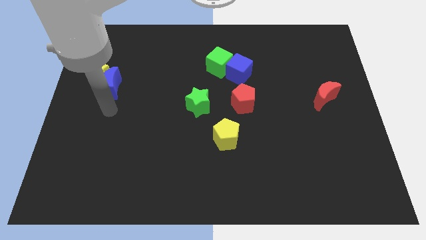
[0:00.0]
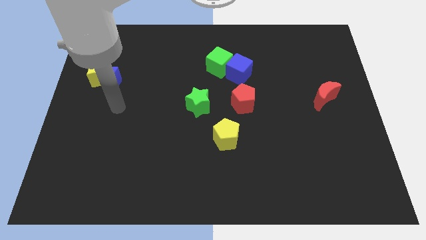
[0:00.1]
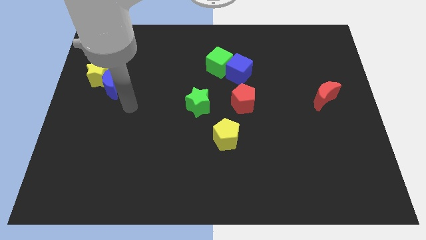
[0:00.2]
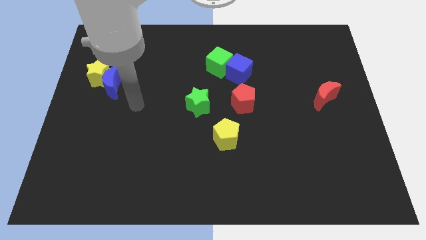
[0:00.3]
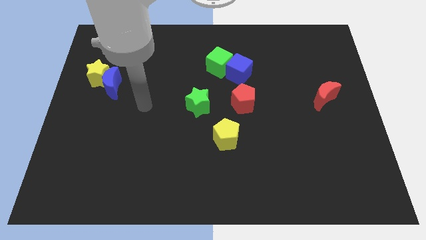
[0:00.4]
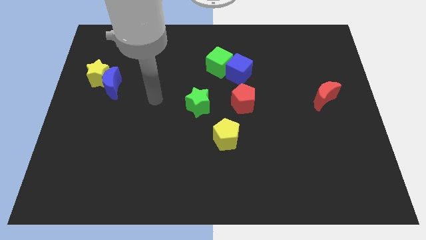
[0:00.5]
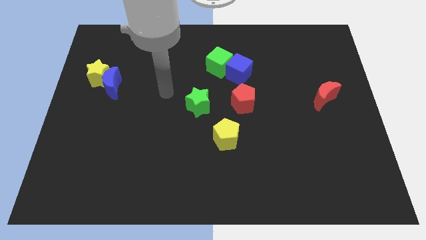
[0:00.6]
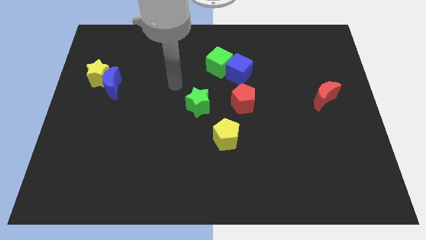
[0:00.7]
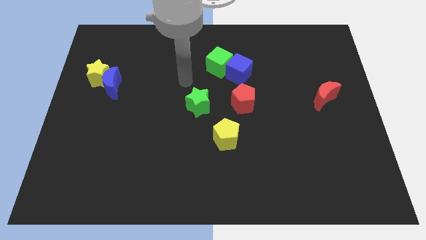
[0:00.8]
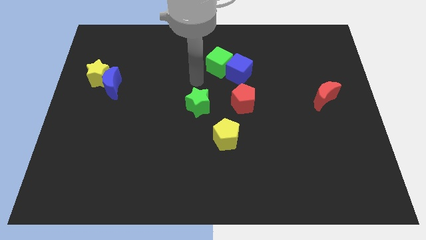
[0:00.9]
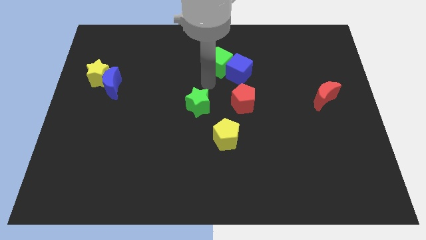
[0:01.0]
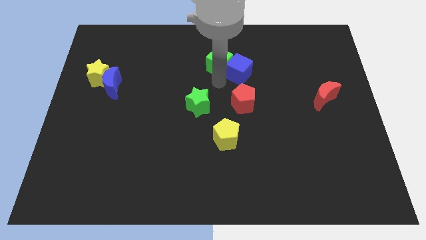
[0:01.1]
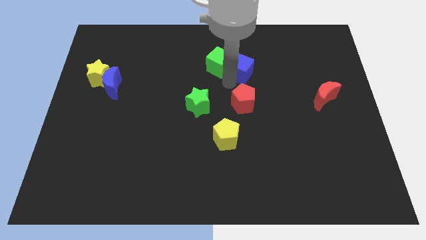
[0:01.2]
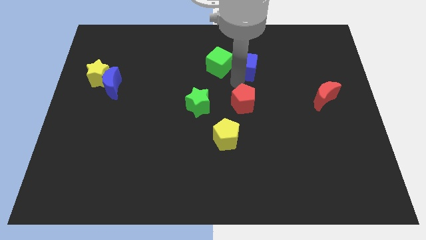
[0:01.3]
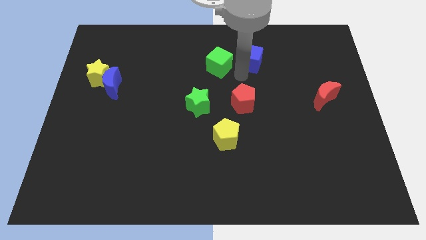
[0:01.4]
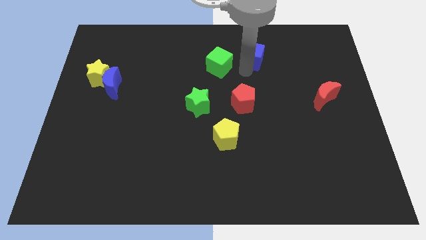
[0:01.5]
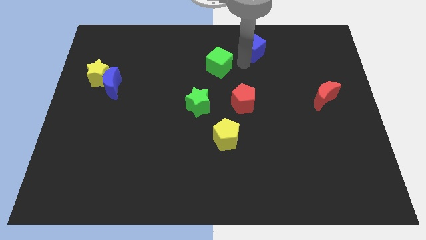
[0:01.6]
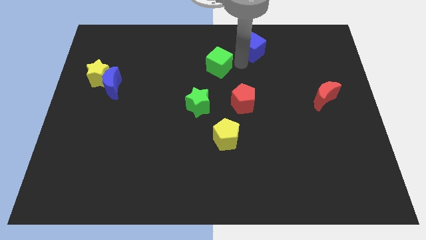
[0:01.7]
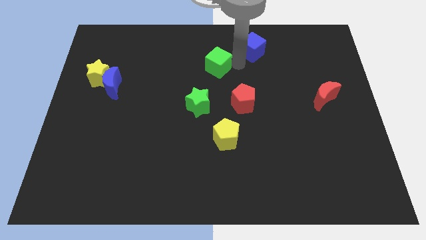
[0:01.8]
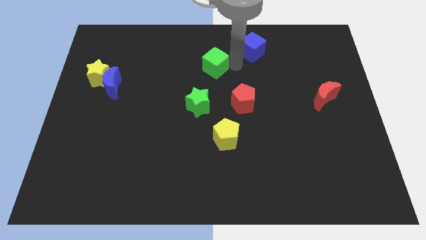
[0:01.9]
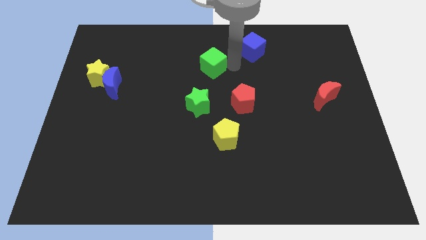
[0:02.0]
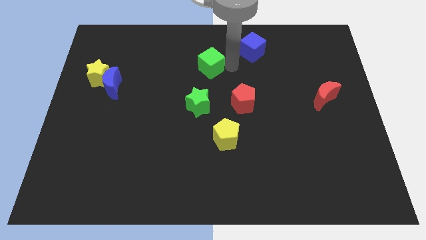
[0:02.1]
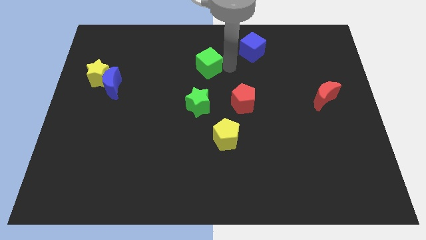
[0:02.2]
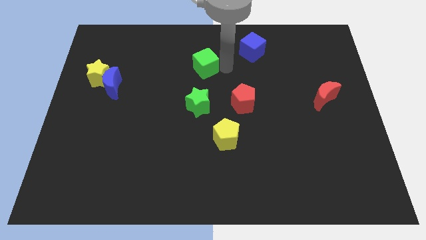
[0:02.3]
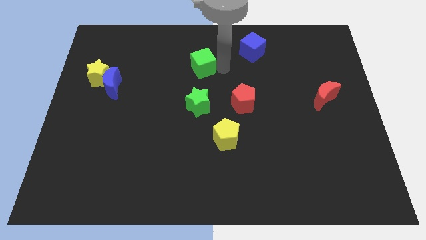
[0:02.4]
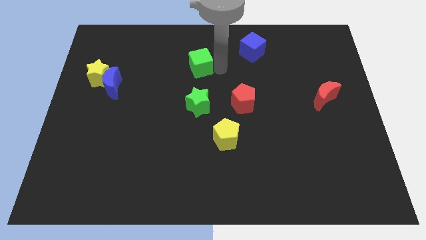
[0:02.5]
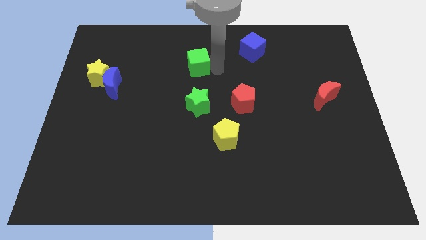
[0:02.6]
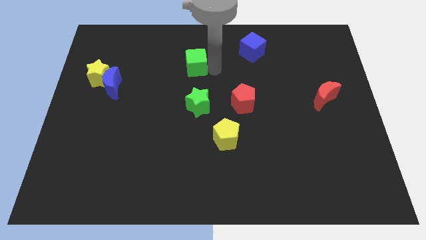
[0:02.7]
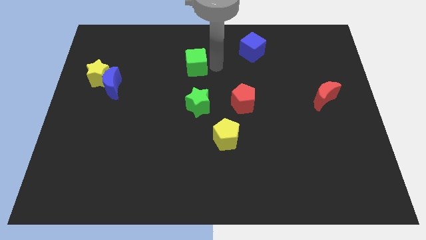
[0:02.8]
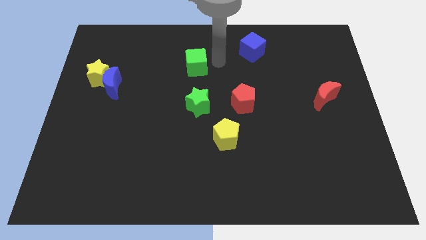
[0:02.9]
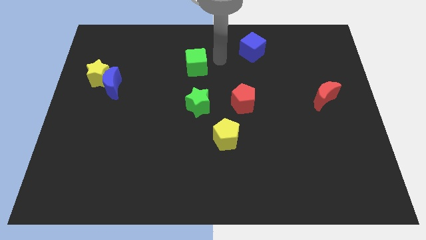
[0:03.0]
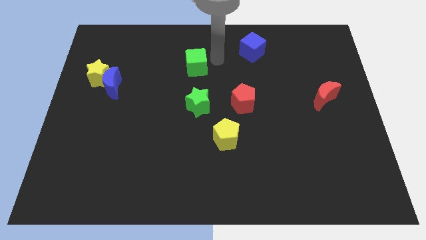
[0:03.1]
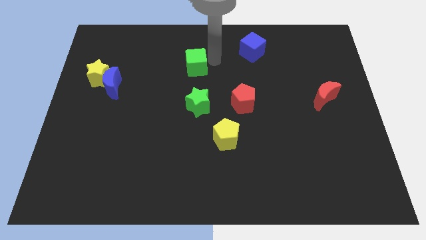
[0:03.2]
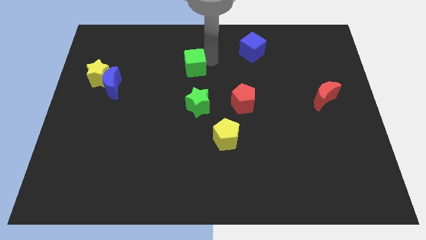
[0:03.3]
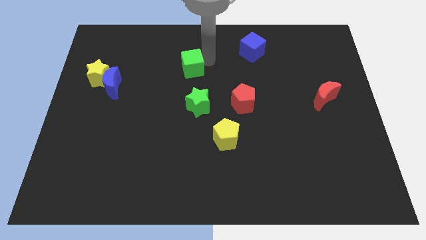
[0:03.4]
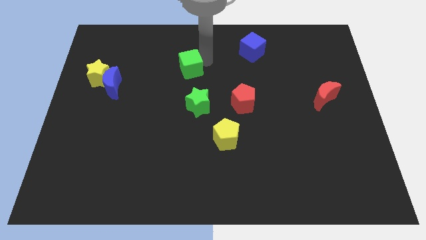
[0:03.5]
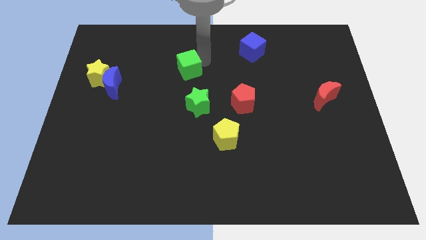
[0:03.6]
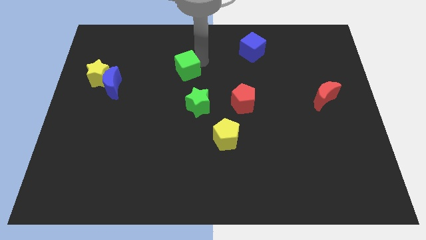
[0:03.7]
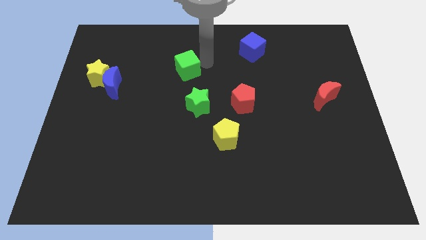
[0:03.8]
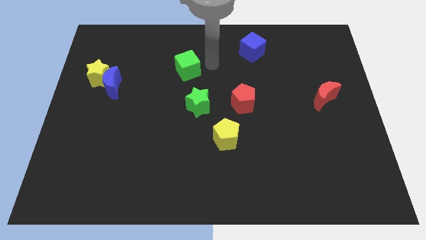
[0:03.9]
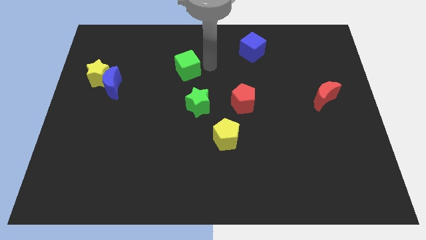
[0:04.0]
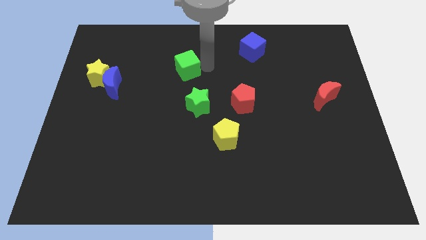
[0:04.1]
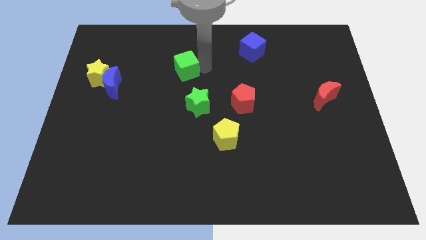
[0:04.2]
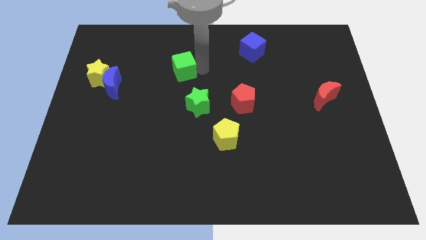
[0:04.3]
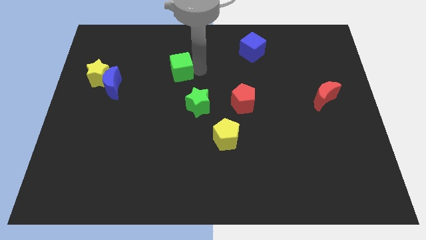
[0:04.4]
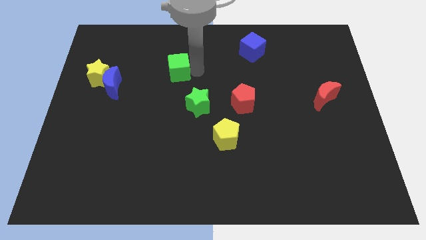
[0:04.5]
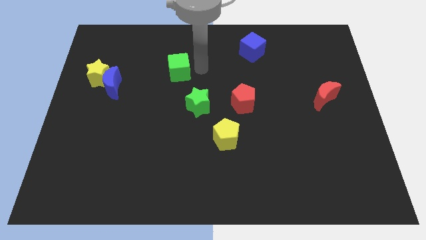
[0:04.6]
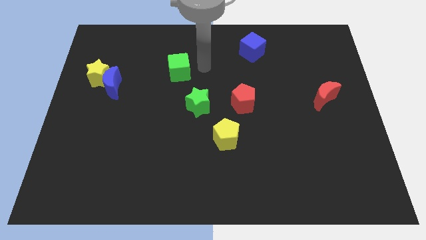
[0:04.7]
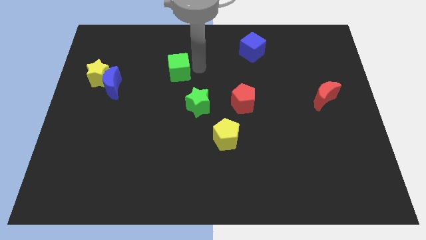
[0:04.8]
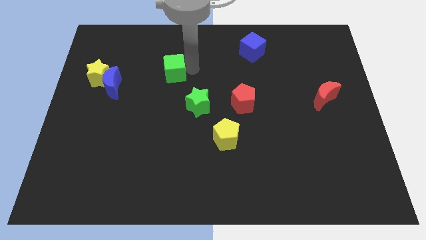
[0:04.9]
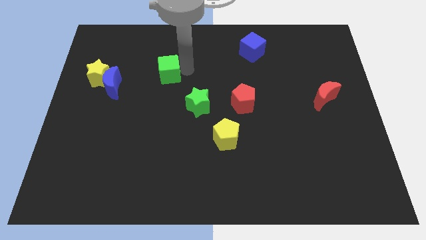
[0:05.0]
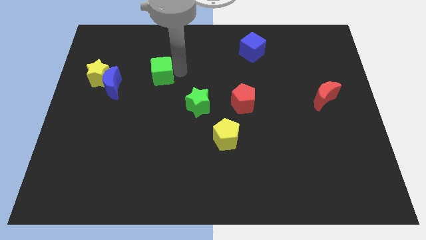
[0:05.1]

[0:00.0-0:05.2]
push the green cube to the right side of the yellow star

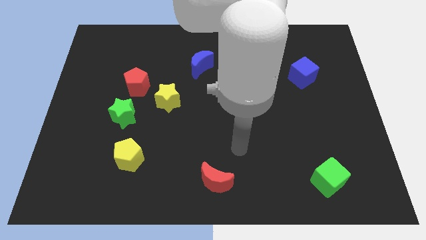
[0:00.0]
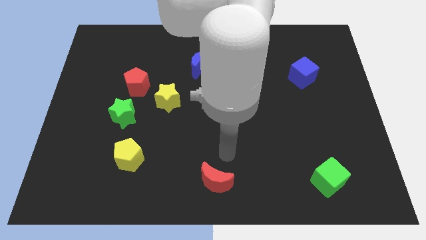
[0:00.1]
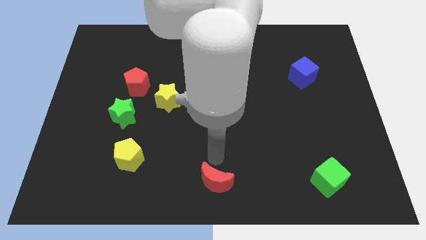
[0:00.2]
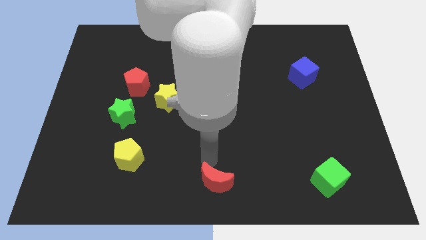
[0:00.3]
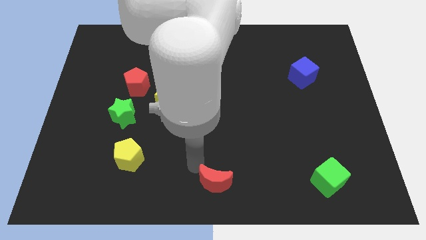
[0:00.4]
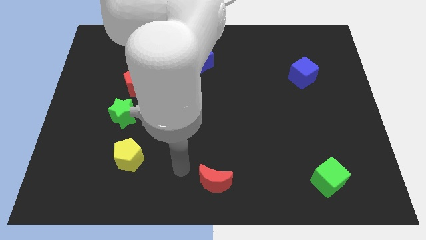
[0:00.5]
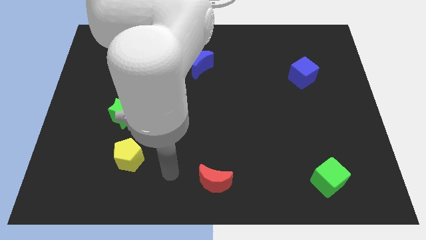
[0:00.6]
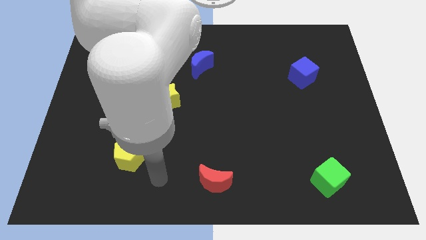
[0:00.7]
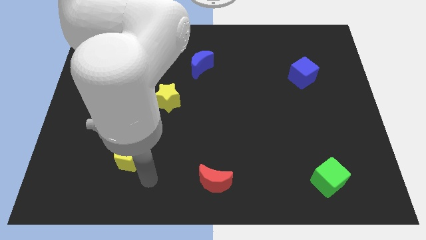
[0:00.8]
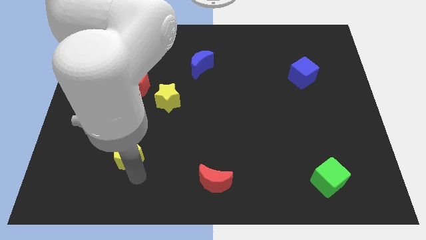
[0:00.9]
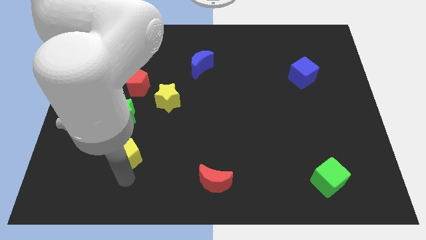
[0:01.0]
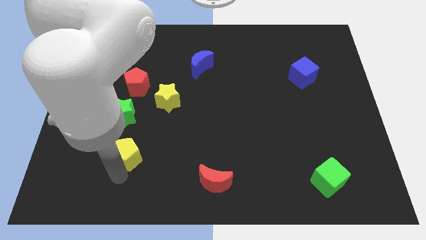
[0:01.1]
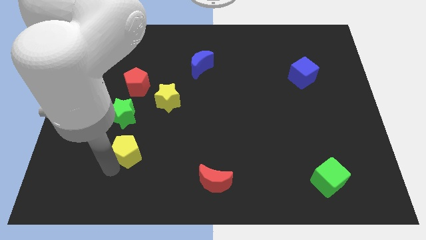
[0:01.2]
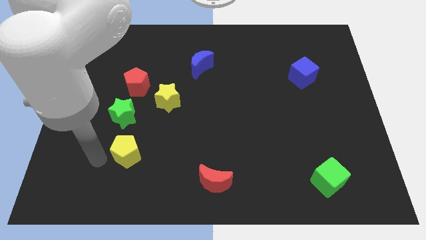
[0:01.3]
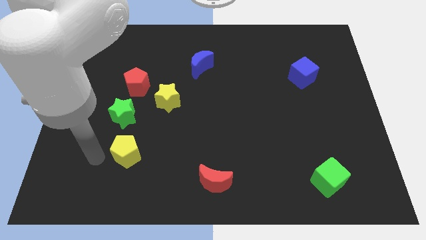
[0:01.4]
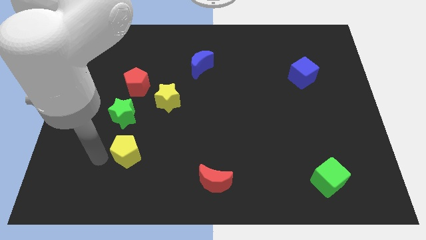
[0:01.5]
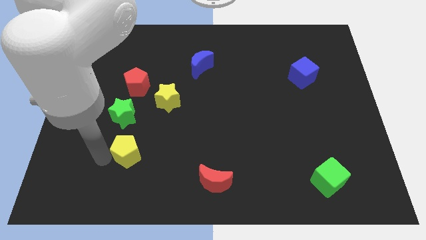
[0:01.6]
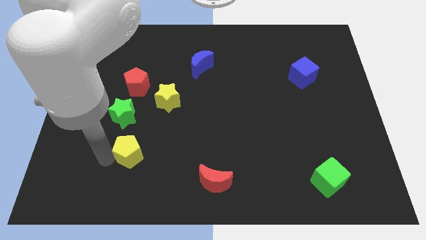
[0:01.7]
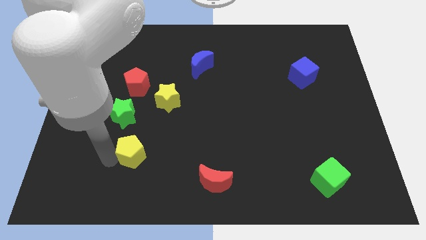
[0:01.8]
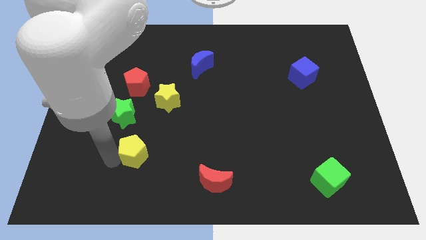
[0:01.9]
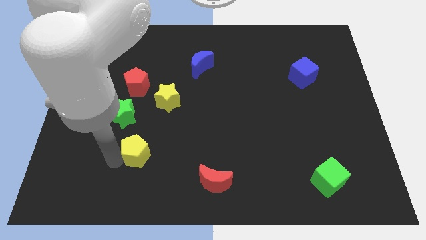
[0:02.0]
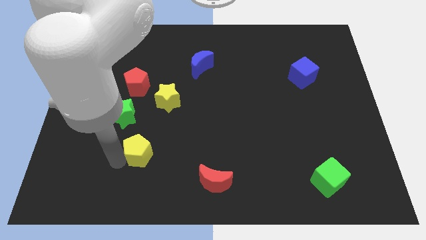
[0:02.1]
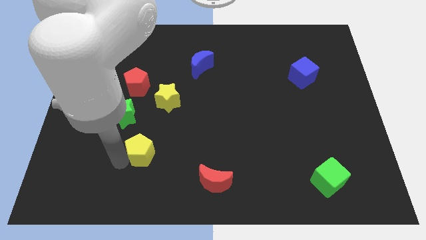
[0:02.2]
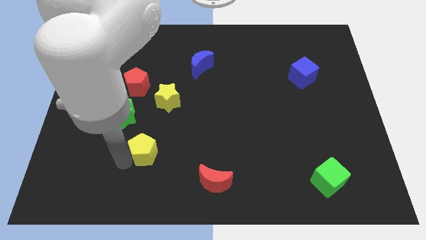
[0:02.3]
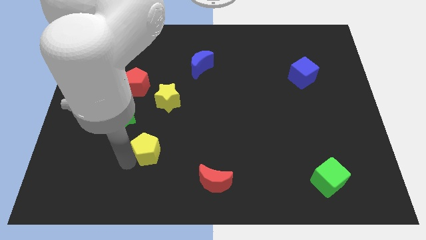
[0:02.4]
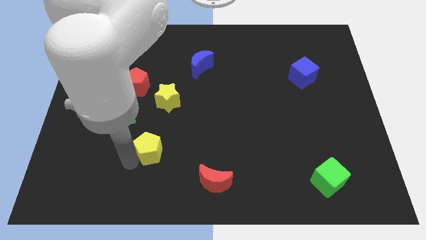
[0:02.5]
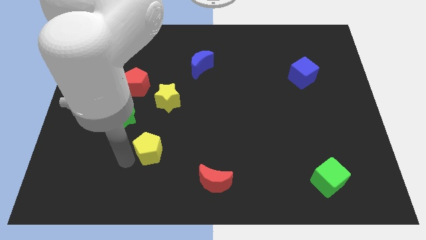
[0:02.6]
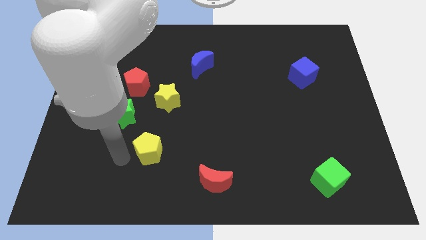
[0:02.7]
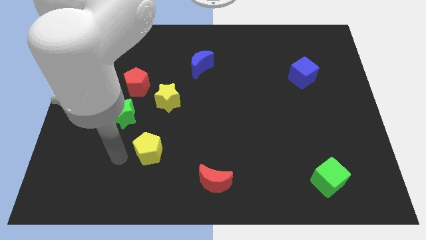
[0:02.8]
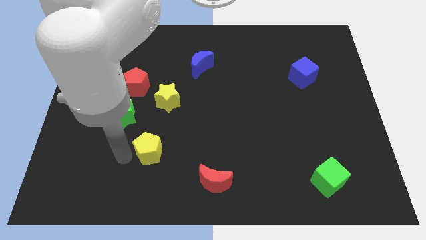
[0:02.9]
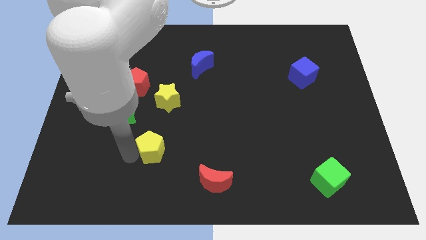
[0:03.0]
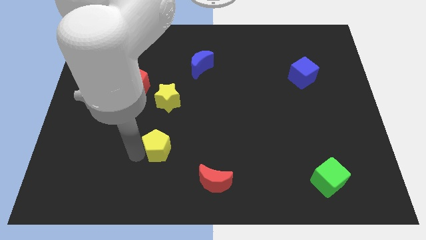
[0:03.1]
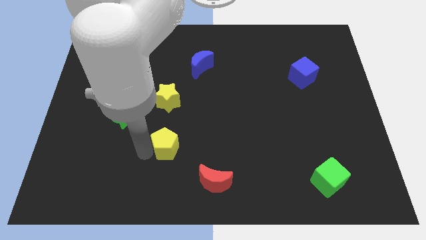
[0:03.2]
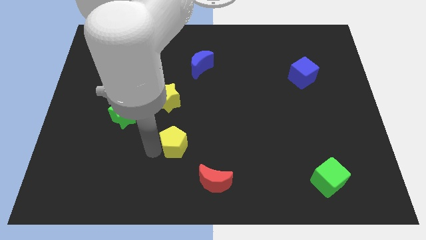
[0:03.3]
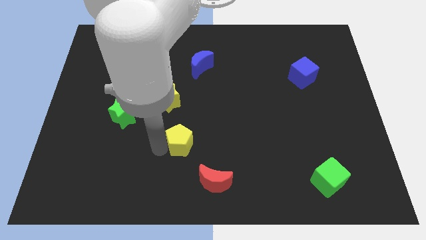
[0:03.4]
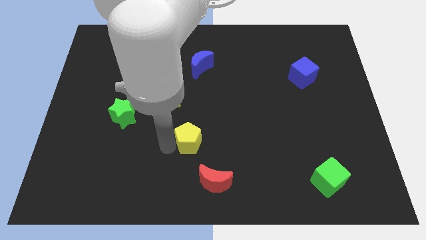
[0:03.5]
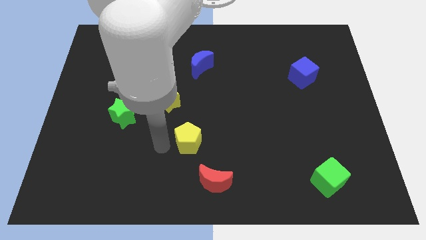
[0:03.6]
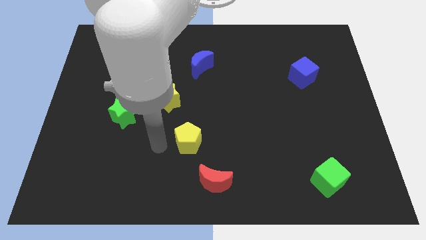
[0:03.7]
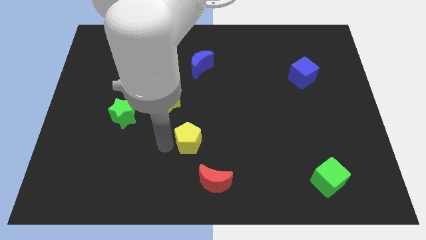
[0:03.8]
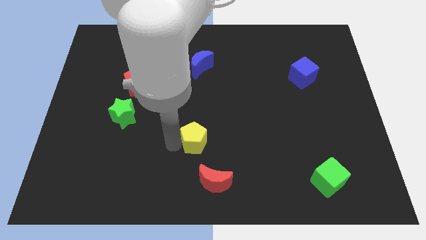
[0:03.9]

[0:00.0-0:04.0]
put the yellow pentagon to the top of the red moon
